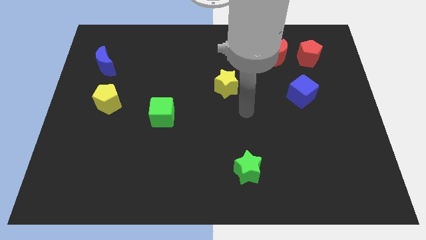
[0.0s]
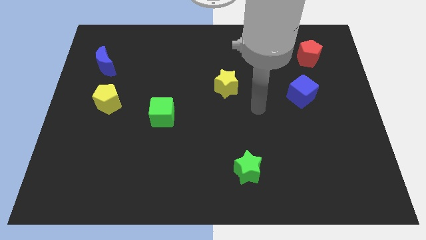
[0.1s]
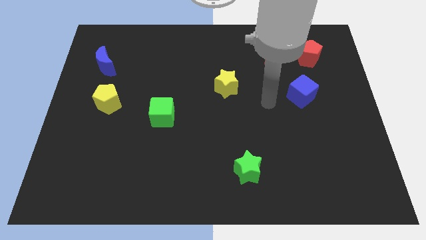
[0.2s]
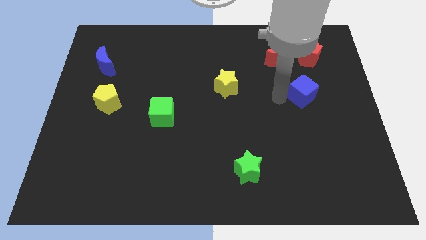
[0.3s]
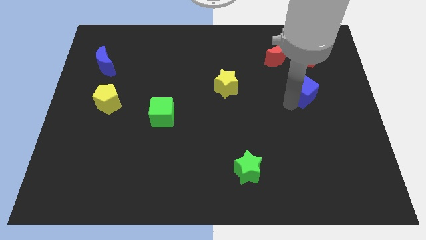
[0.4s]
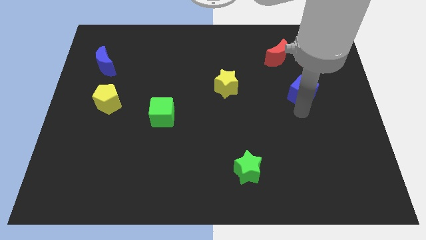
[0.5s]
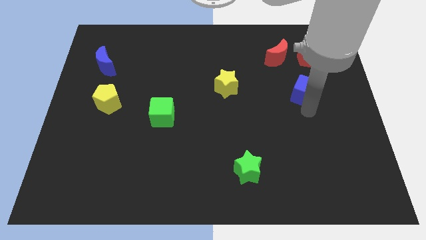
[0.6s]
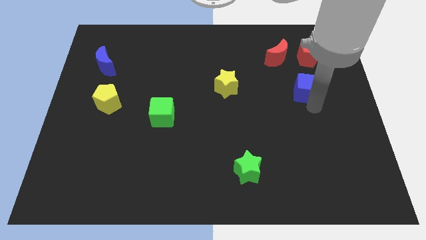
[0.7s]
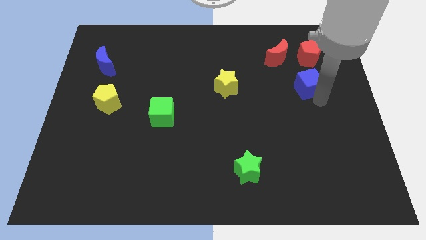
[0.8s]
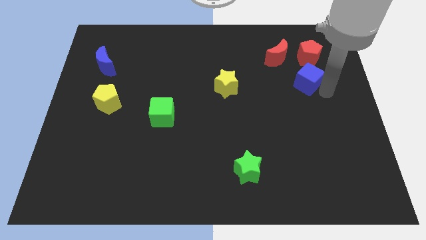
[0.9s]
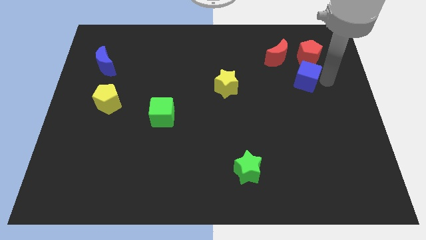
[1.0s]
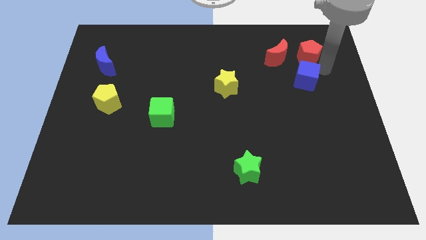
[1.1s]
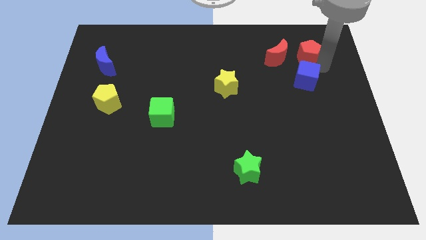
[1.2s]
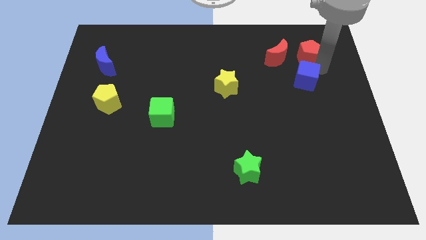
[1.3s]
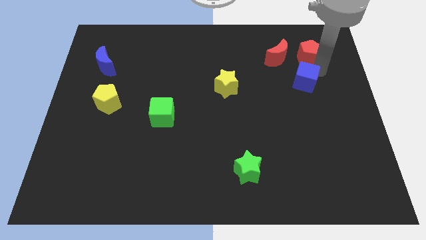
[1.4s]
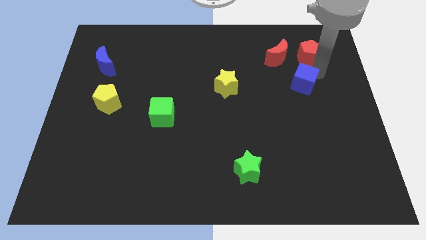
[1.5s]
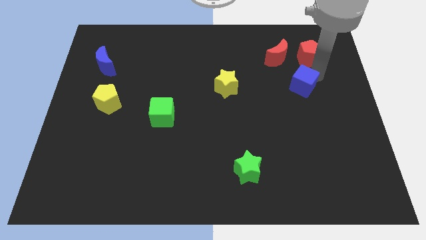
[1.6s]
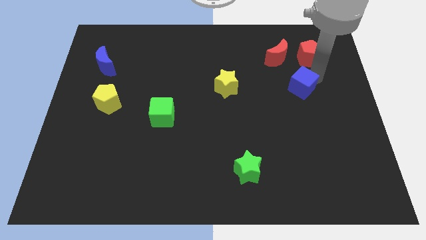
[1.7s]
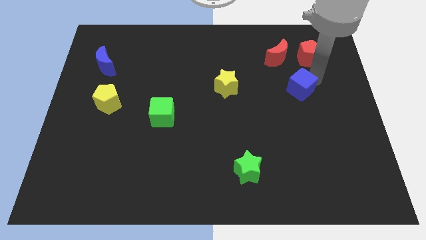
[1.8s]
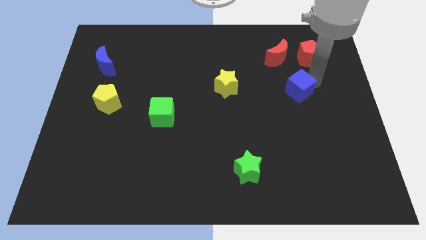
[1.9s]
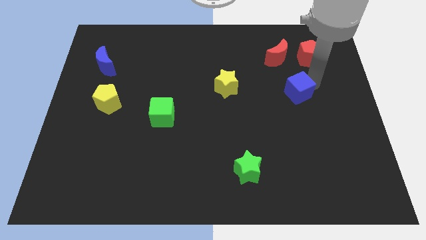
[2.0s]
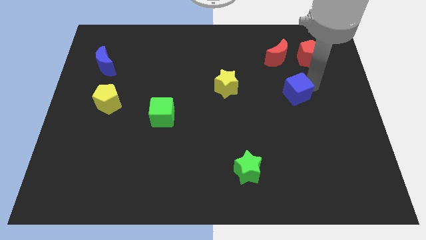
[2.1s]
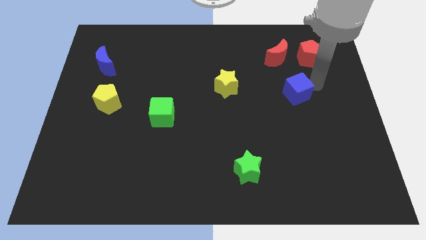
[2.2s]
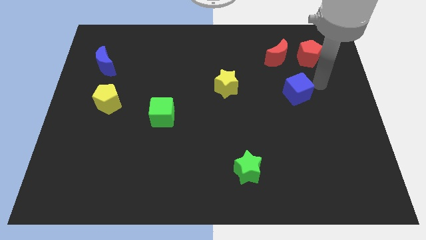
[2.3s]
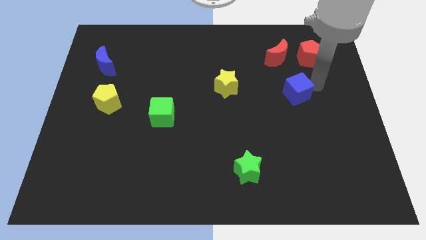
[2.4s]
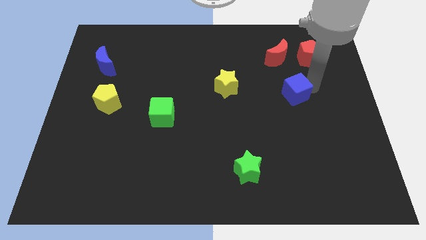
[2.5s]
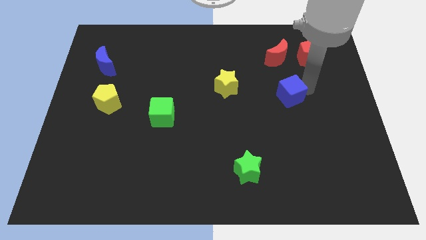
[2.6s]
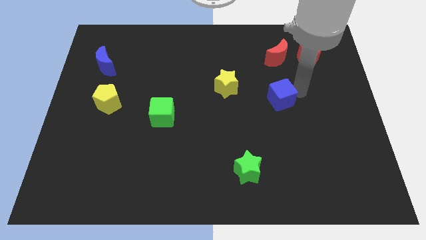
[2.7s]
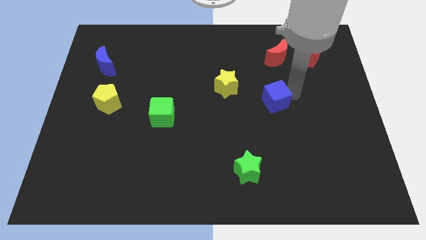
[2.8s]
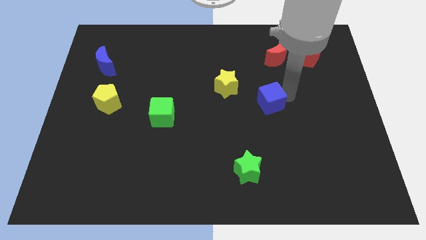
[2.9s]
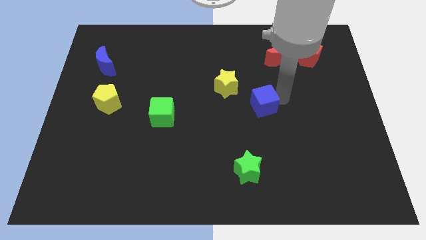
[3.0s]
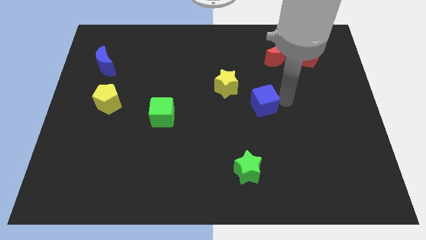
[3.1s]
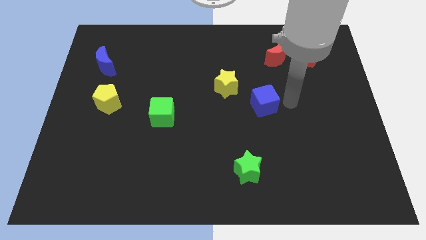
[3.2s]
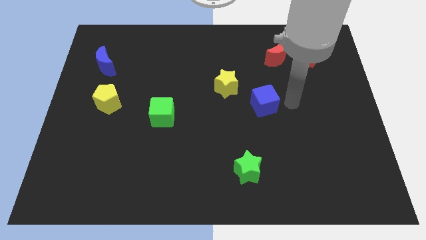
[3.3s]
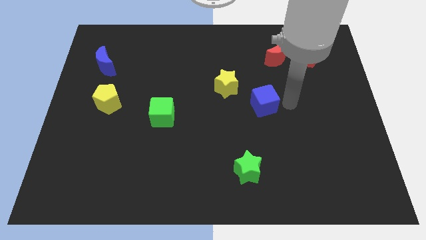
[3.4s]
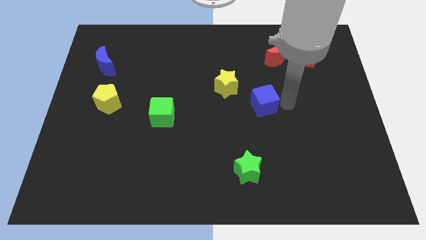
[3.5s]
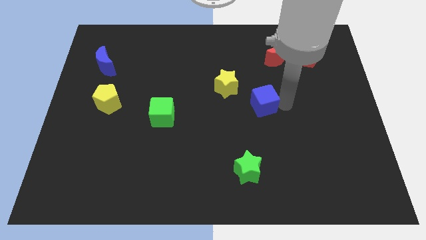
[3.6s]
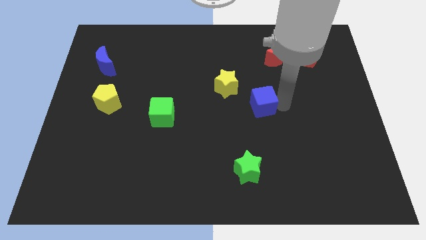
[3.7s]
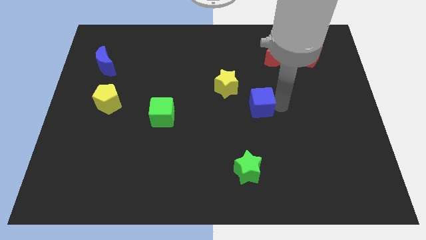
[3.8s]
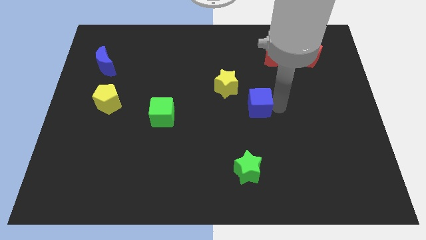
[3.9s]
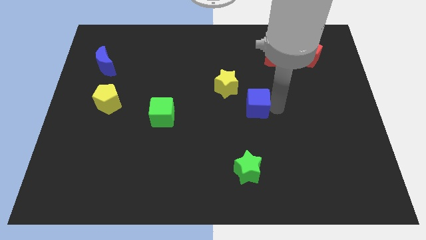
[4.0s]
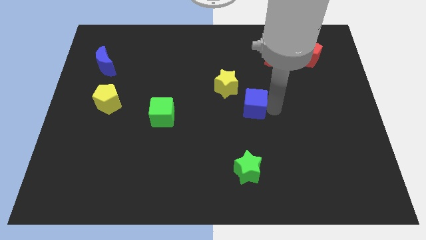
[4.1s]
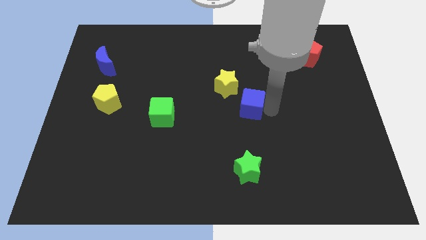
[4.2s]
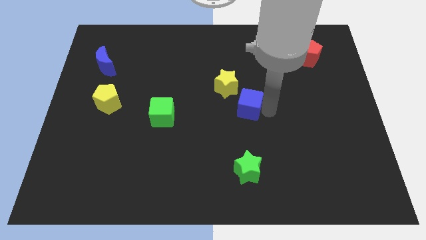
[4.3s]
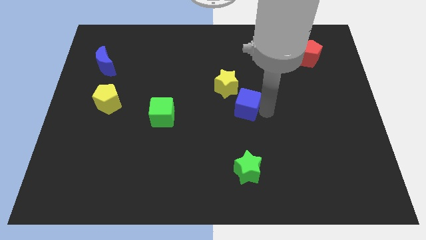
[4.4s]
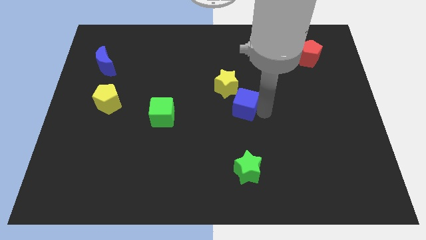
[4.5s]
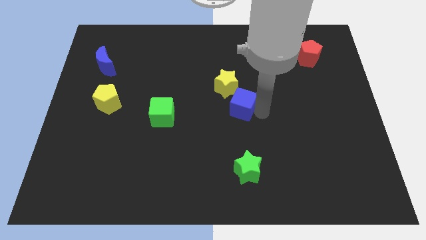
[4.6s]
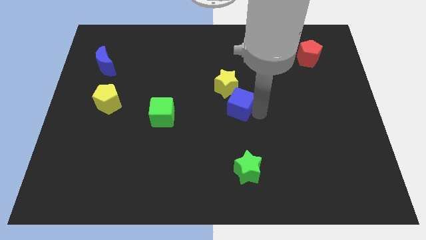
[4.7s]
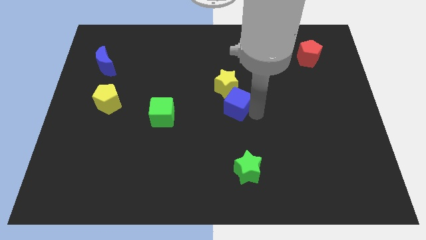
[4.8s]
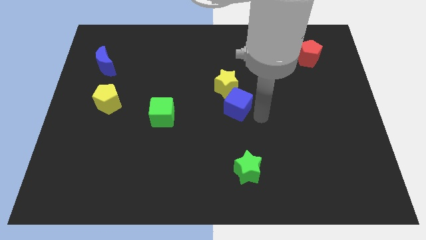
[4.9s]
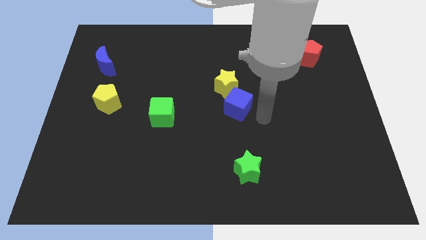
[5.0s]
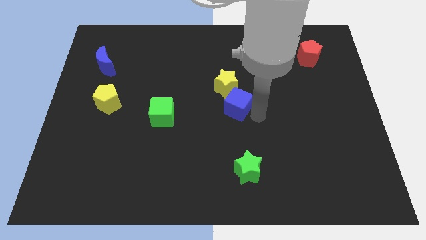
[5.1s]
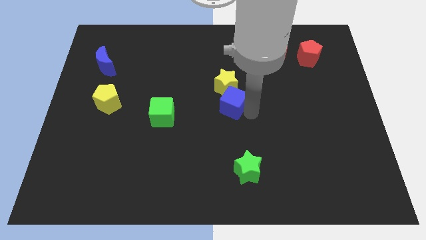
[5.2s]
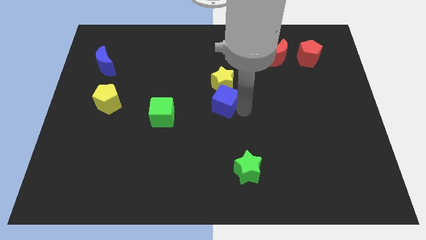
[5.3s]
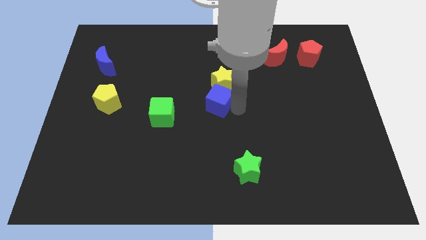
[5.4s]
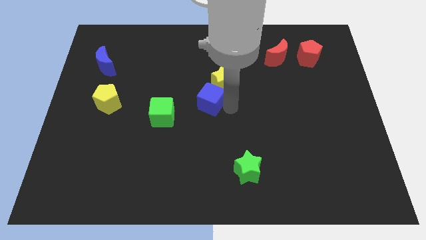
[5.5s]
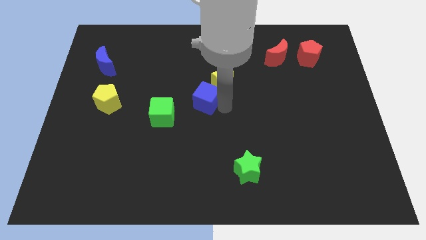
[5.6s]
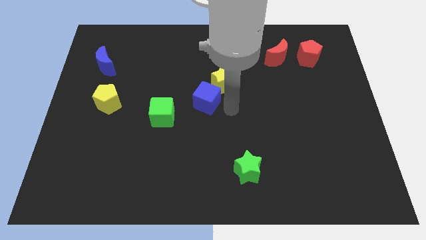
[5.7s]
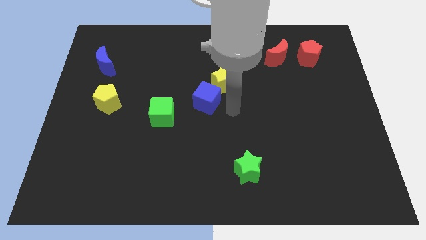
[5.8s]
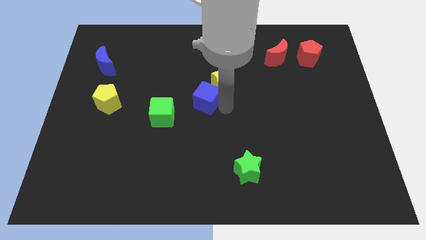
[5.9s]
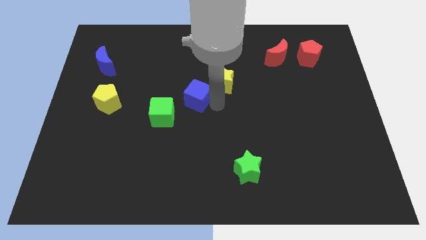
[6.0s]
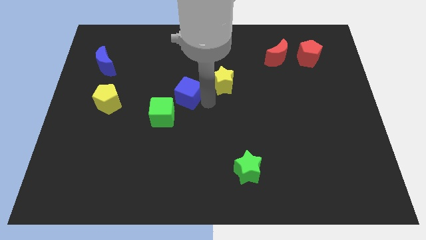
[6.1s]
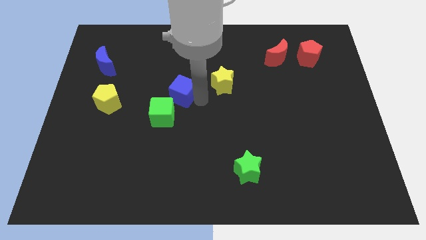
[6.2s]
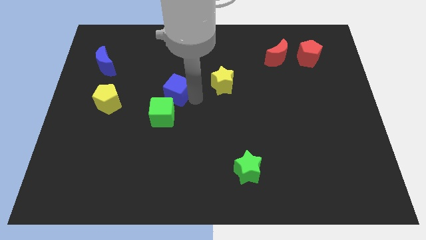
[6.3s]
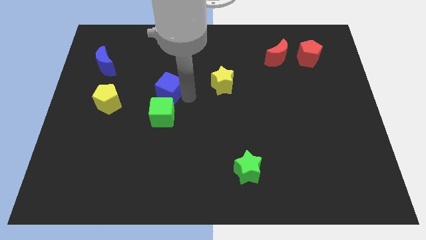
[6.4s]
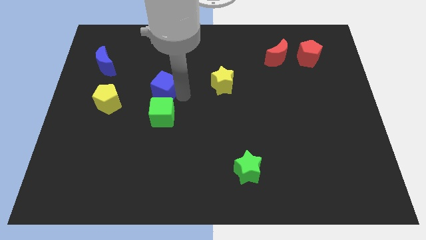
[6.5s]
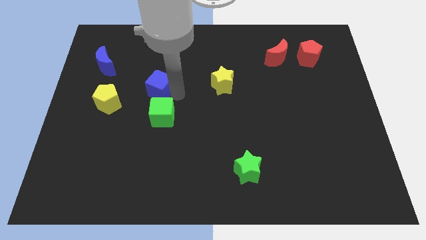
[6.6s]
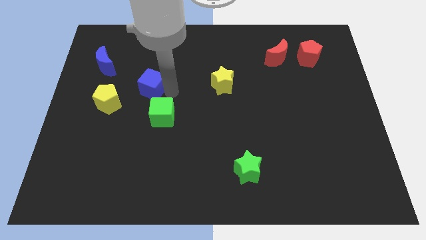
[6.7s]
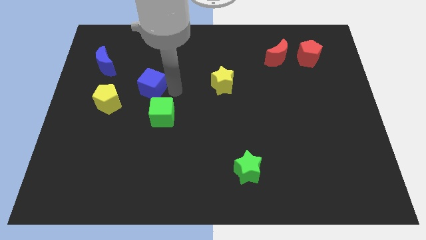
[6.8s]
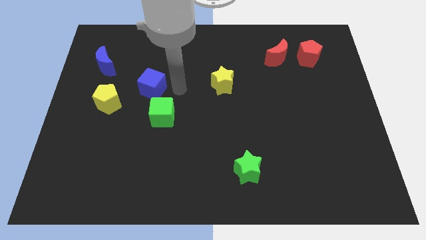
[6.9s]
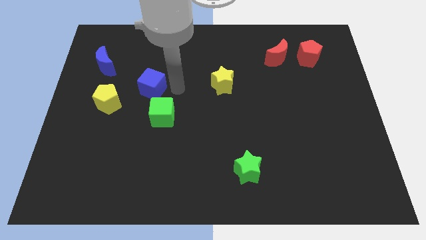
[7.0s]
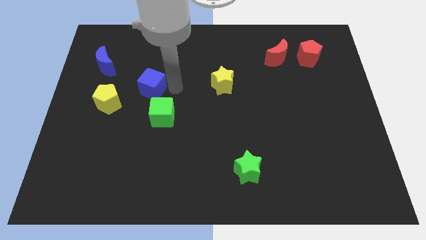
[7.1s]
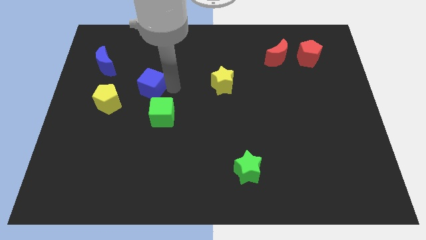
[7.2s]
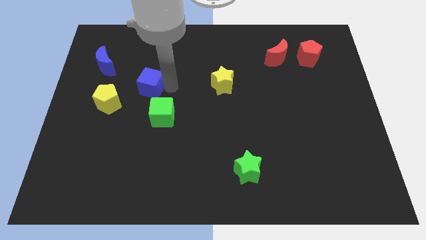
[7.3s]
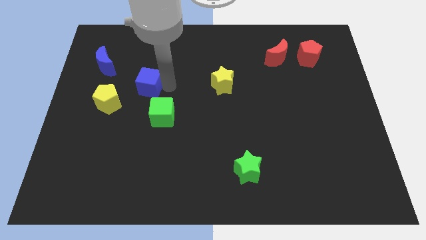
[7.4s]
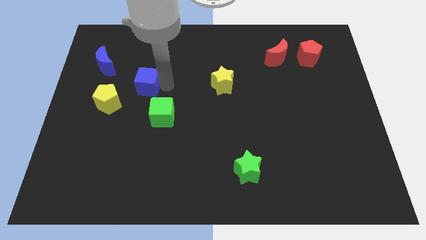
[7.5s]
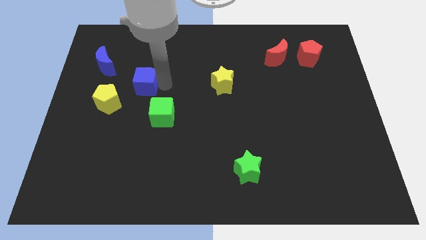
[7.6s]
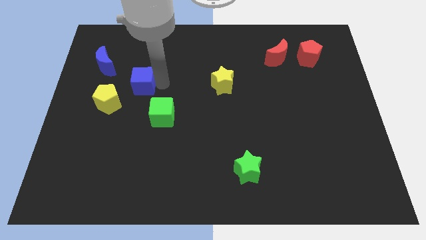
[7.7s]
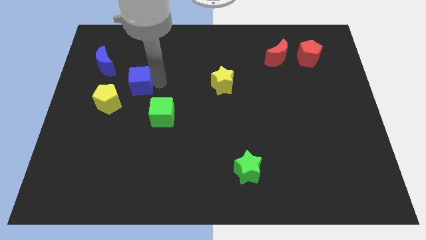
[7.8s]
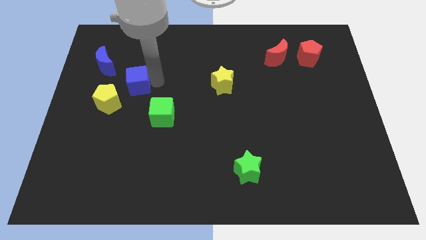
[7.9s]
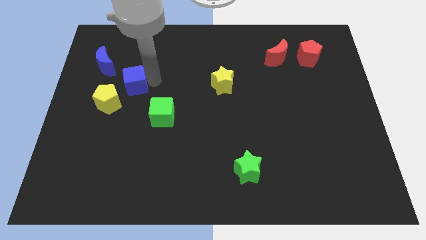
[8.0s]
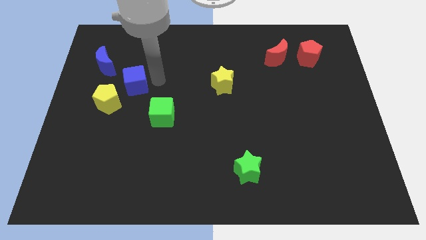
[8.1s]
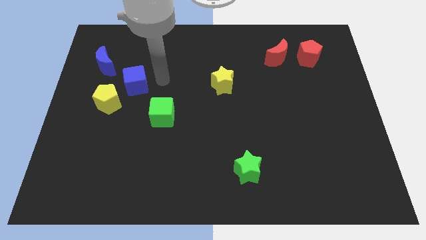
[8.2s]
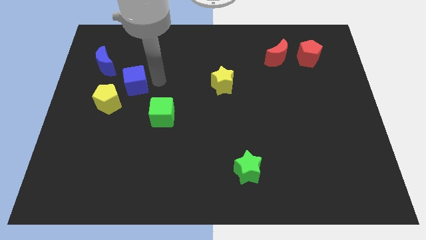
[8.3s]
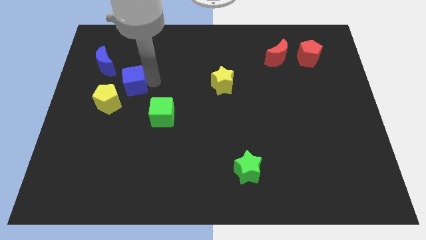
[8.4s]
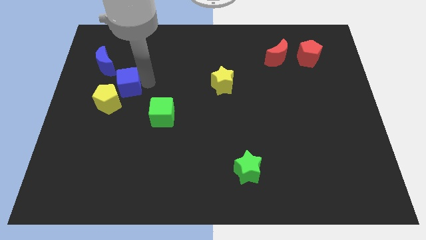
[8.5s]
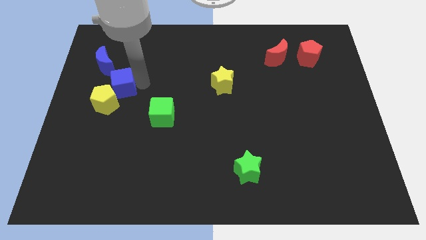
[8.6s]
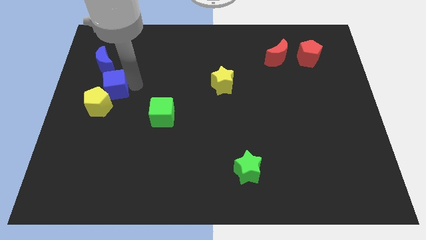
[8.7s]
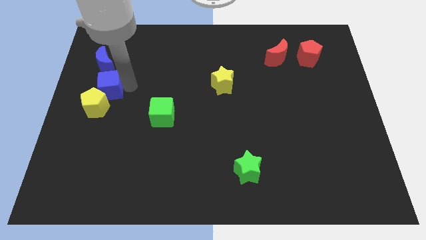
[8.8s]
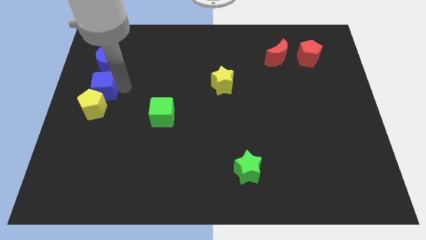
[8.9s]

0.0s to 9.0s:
slide the blue cube to the center left
